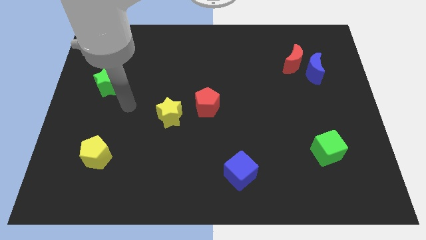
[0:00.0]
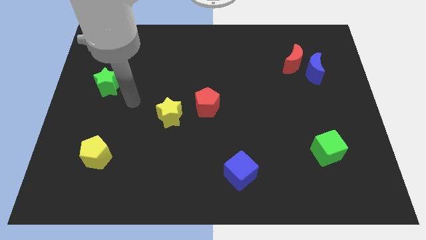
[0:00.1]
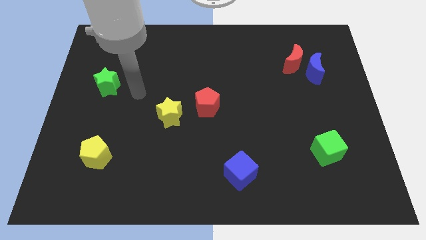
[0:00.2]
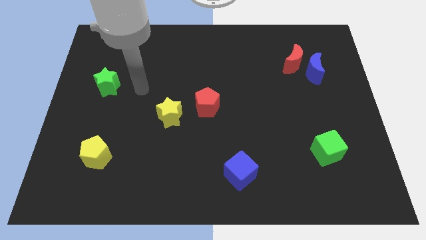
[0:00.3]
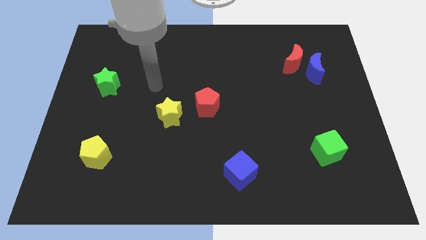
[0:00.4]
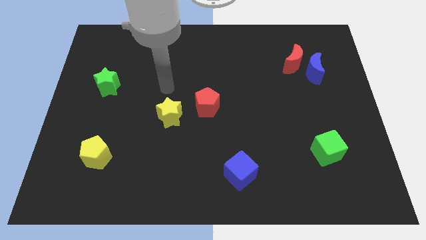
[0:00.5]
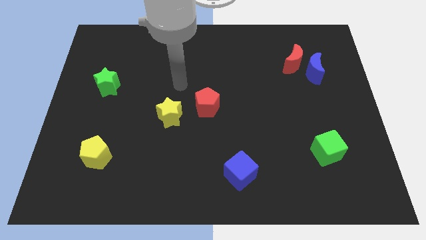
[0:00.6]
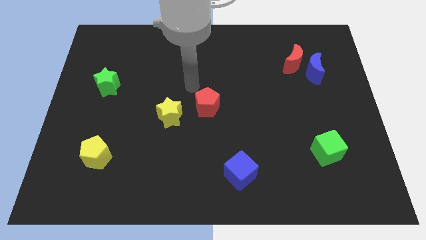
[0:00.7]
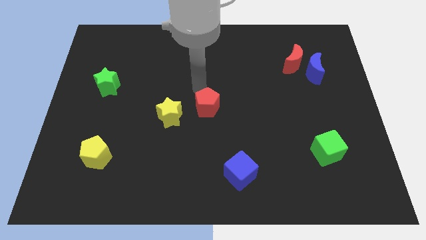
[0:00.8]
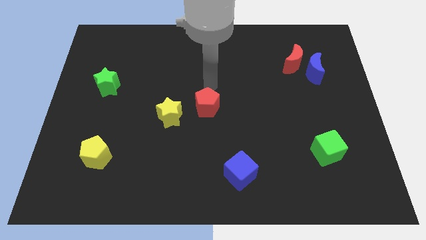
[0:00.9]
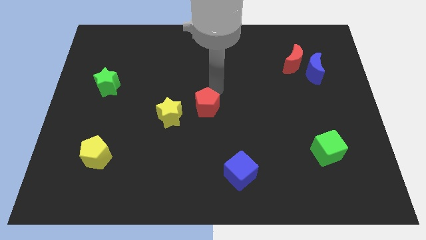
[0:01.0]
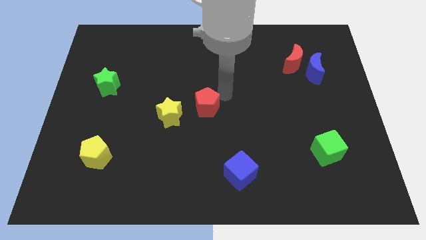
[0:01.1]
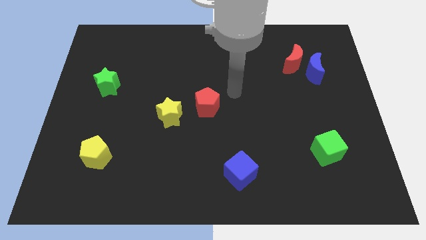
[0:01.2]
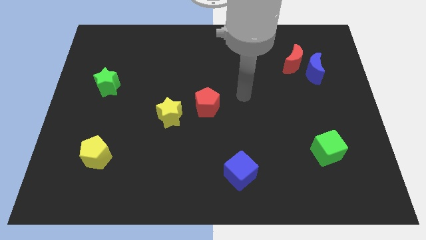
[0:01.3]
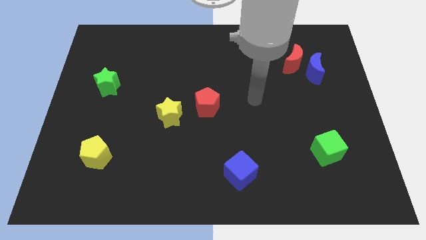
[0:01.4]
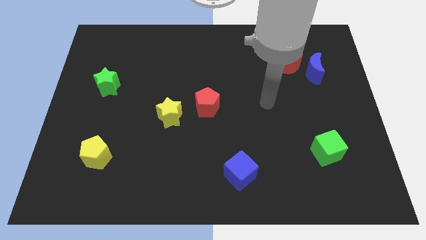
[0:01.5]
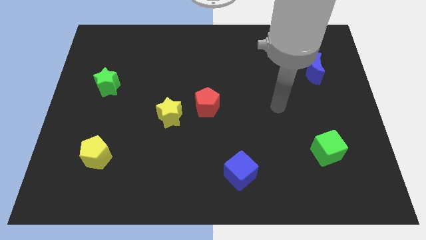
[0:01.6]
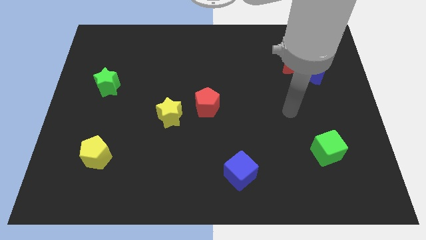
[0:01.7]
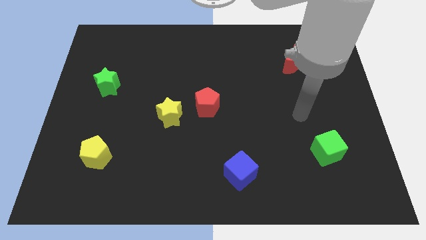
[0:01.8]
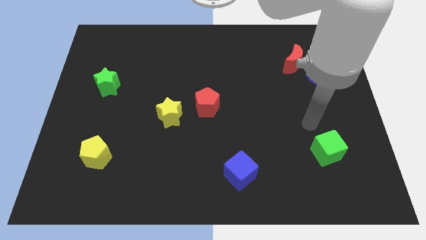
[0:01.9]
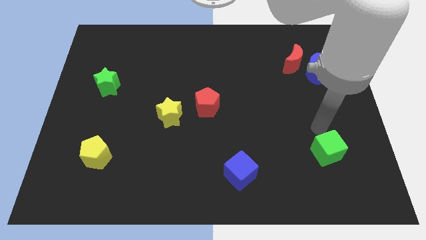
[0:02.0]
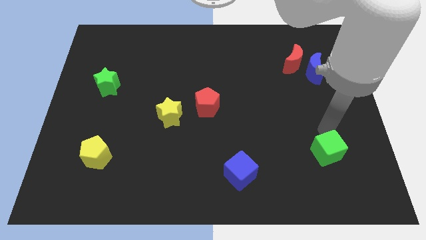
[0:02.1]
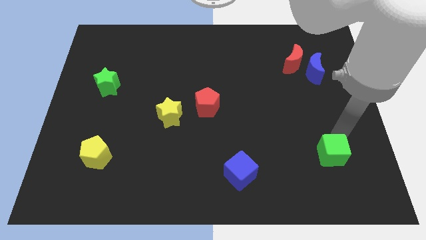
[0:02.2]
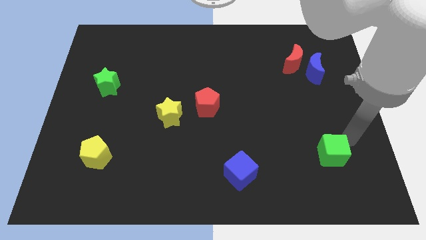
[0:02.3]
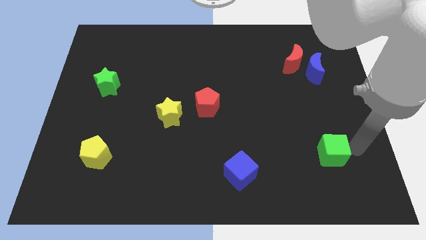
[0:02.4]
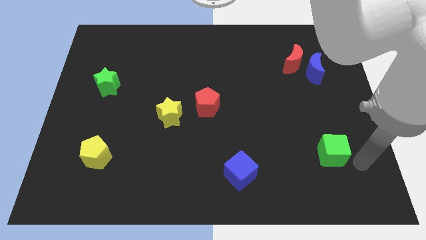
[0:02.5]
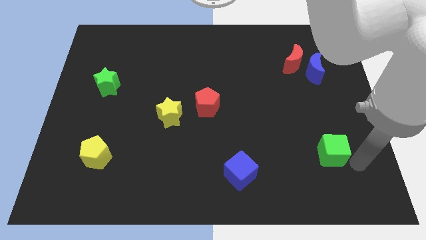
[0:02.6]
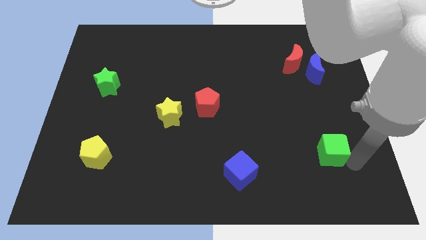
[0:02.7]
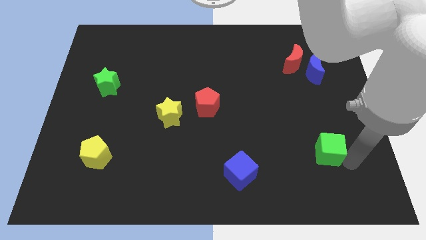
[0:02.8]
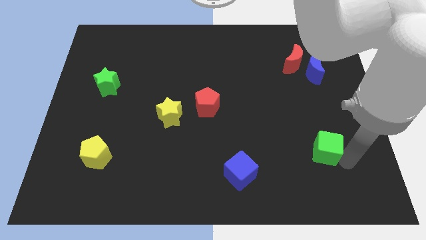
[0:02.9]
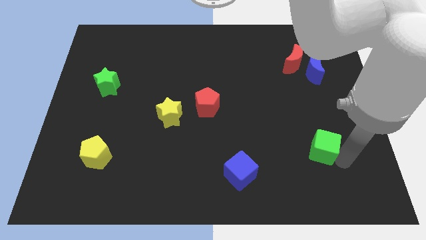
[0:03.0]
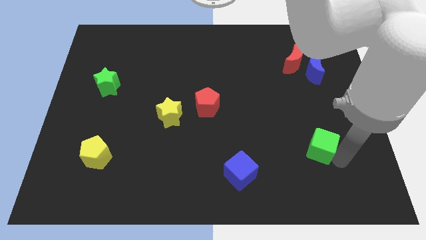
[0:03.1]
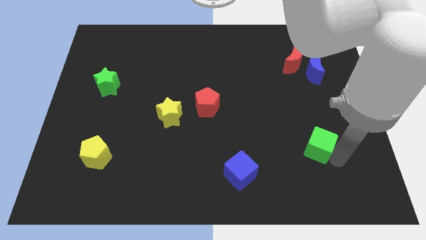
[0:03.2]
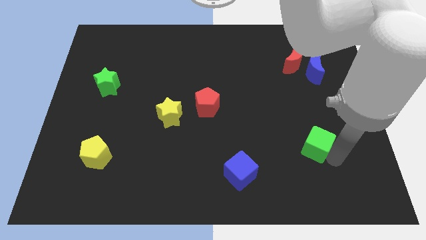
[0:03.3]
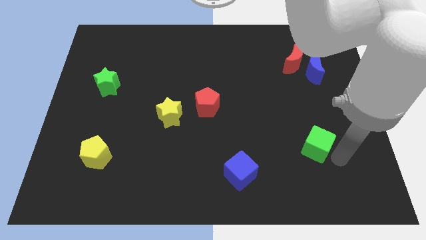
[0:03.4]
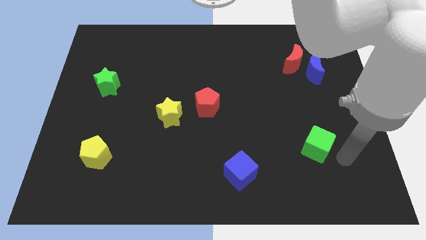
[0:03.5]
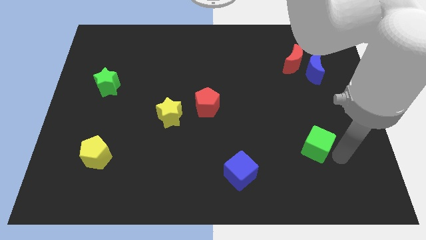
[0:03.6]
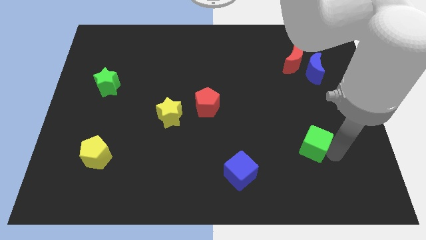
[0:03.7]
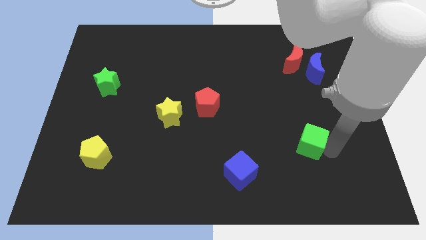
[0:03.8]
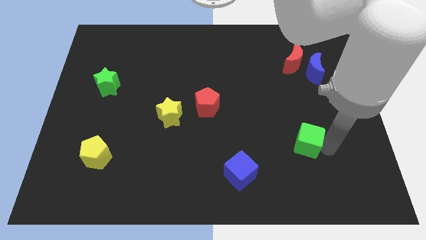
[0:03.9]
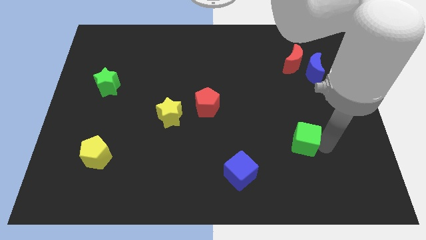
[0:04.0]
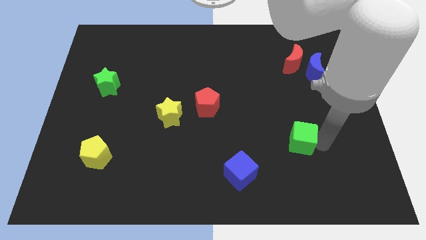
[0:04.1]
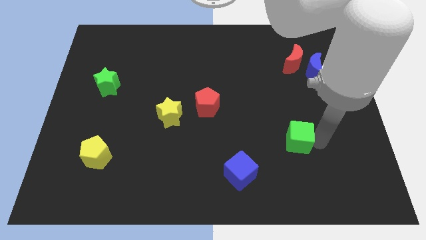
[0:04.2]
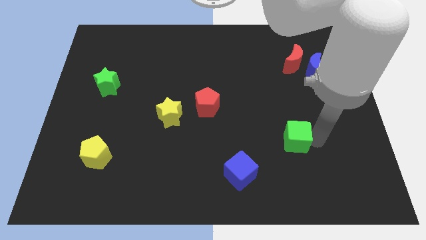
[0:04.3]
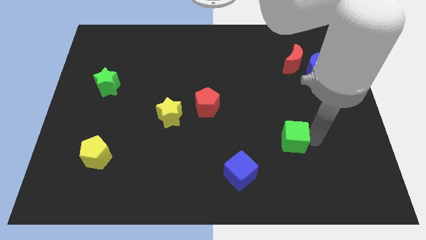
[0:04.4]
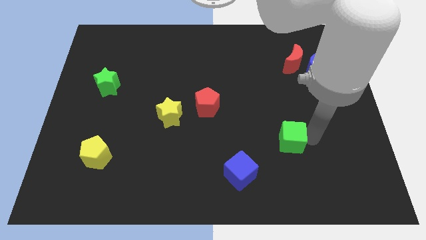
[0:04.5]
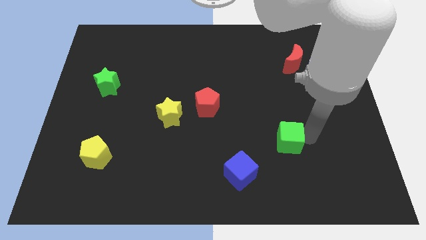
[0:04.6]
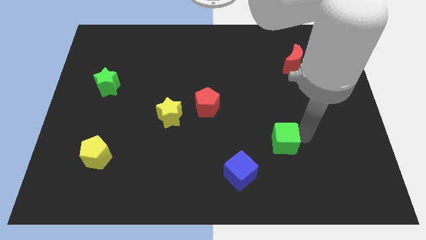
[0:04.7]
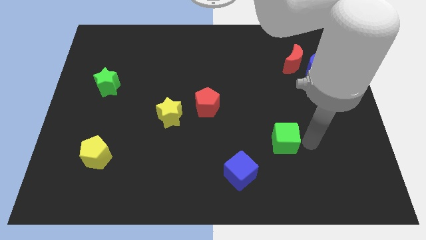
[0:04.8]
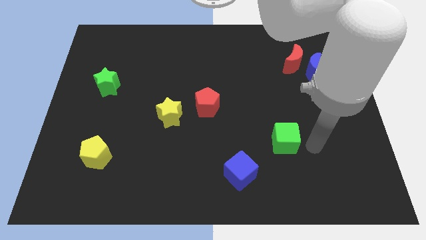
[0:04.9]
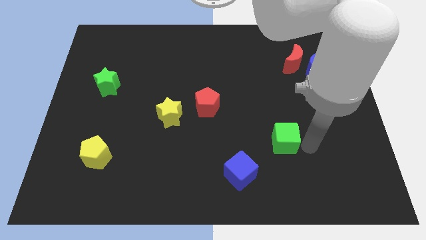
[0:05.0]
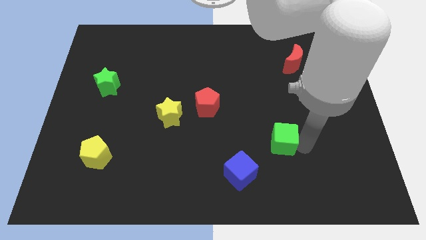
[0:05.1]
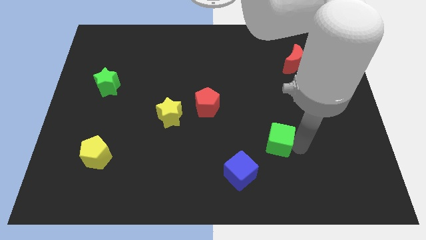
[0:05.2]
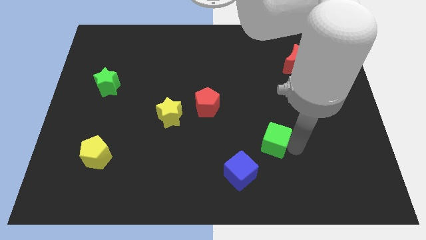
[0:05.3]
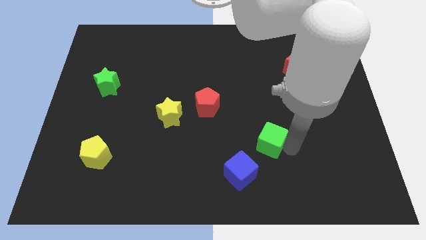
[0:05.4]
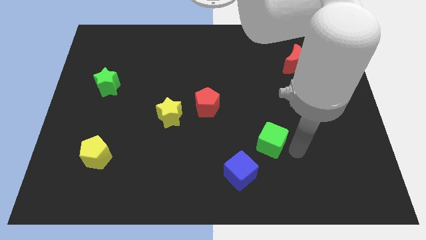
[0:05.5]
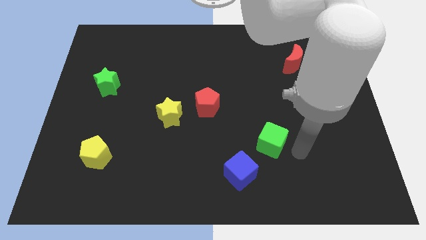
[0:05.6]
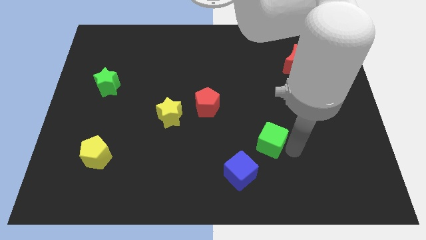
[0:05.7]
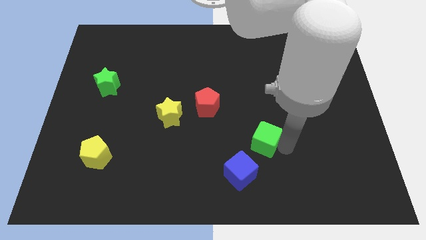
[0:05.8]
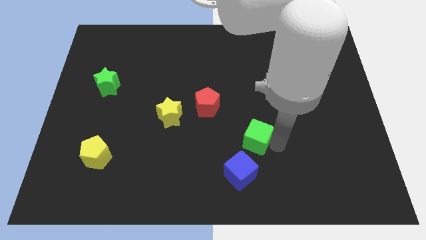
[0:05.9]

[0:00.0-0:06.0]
push the green cube to the top of the blue cube

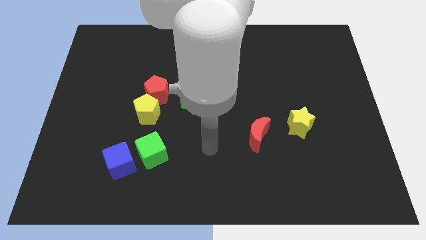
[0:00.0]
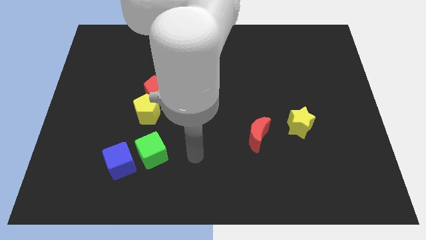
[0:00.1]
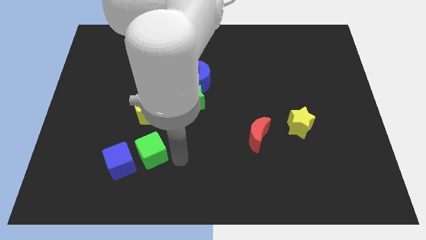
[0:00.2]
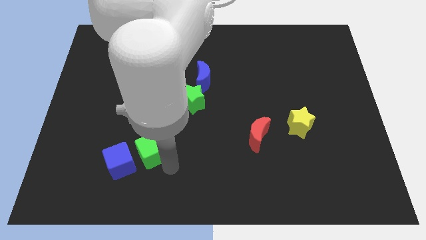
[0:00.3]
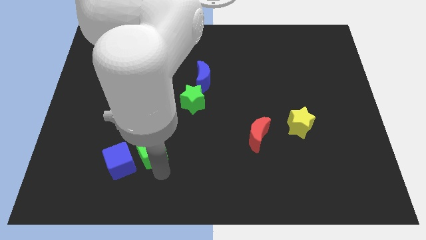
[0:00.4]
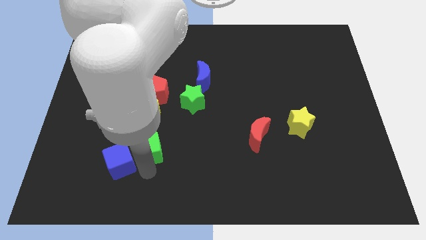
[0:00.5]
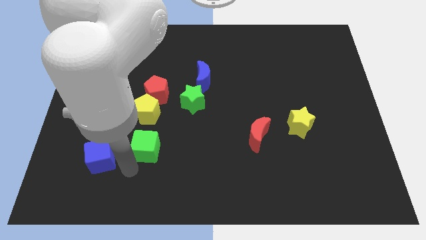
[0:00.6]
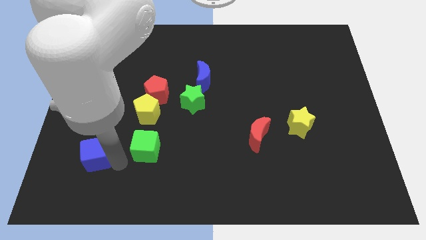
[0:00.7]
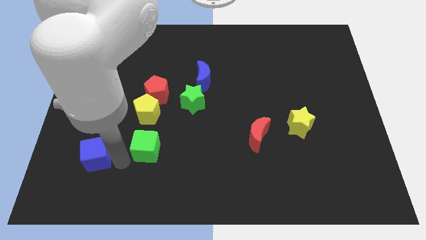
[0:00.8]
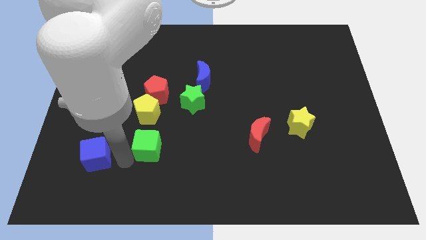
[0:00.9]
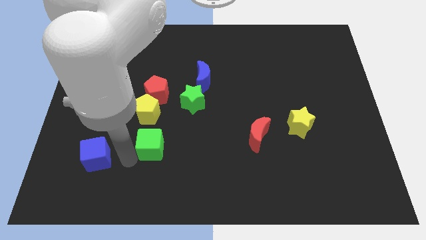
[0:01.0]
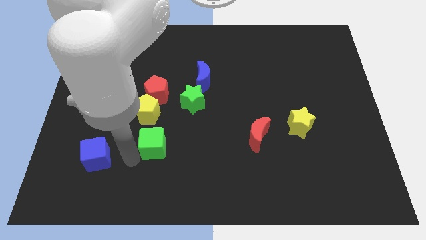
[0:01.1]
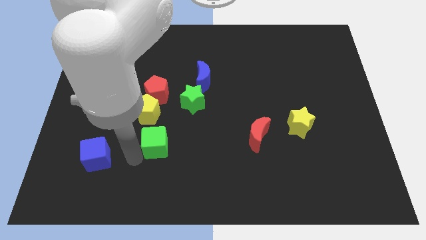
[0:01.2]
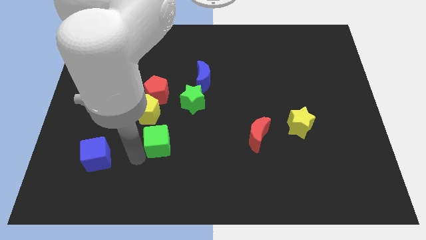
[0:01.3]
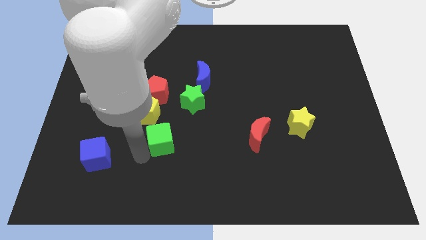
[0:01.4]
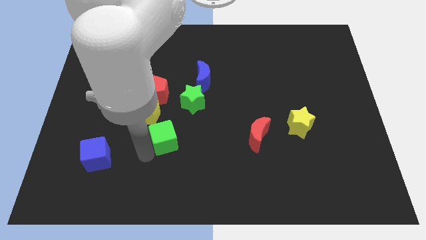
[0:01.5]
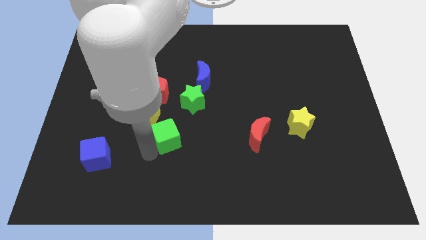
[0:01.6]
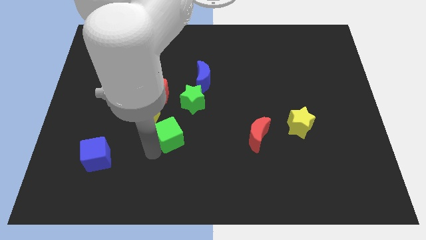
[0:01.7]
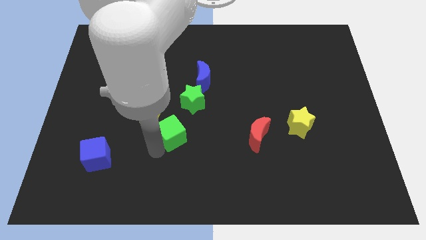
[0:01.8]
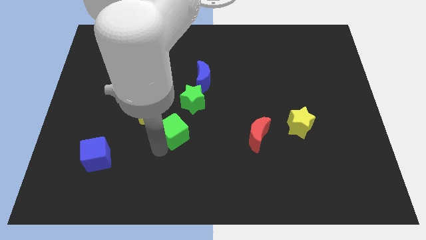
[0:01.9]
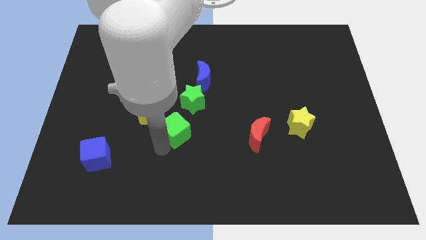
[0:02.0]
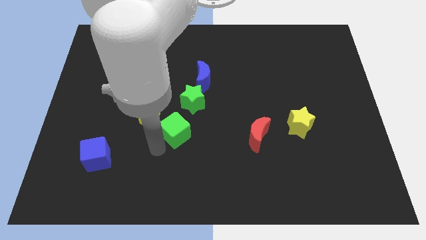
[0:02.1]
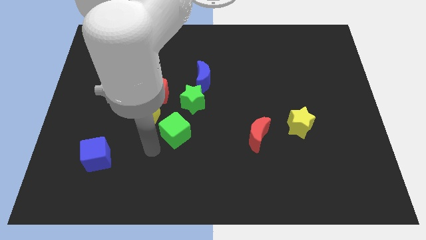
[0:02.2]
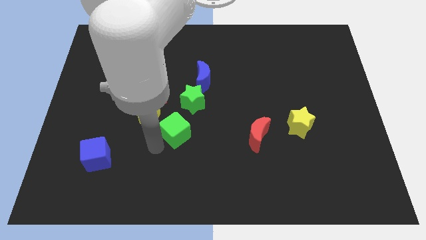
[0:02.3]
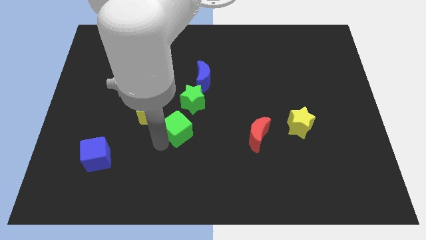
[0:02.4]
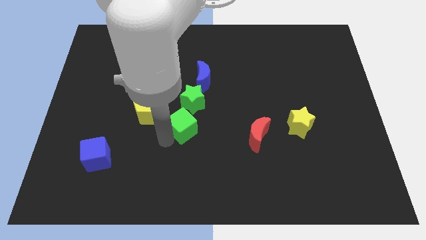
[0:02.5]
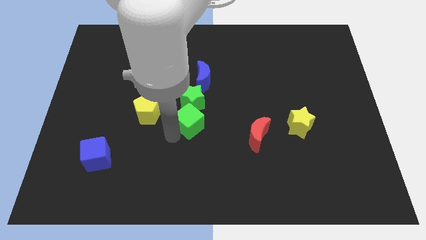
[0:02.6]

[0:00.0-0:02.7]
move the green cube to the bottom of the blue moon
